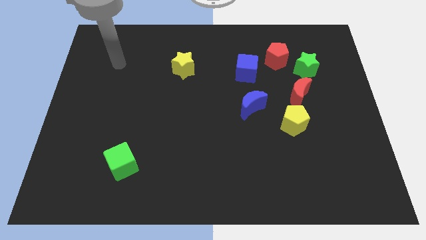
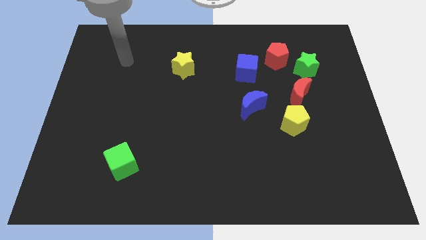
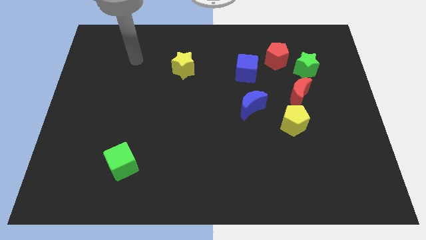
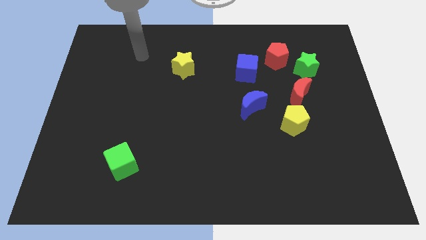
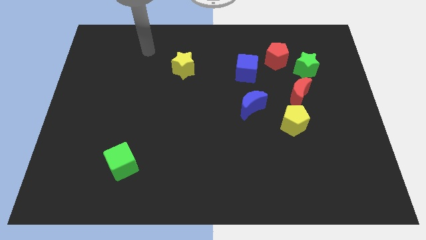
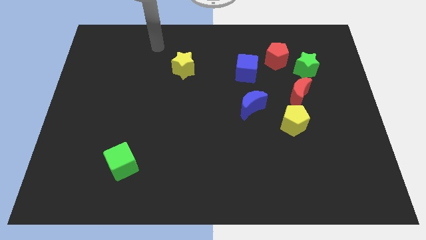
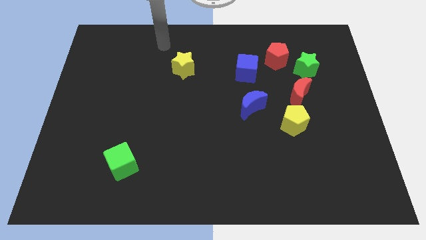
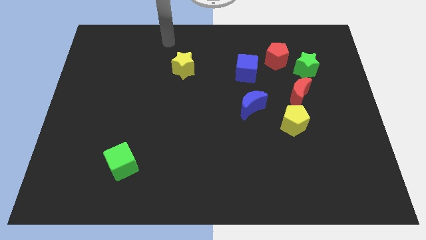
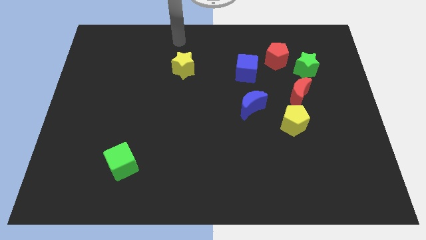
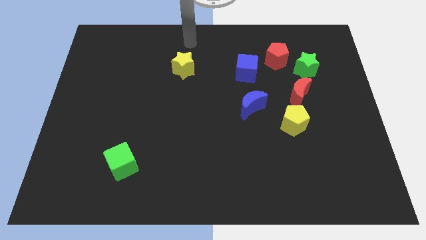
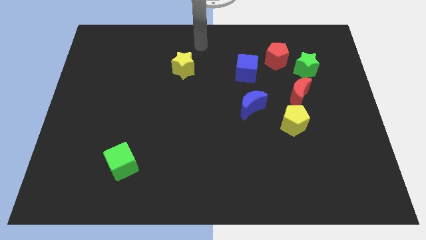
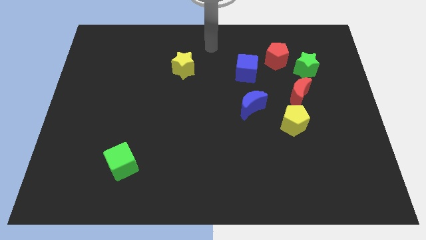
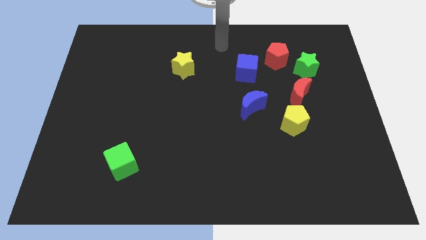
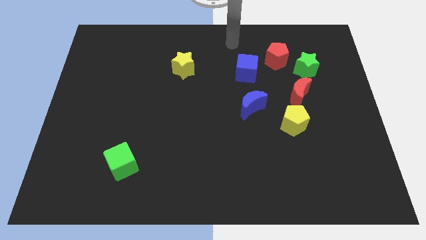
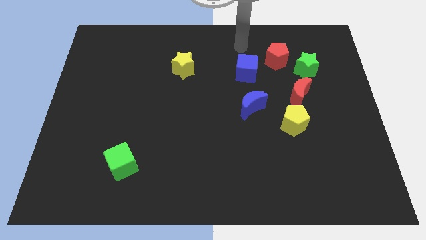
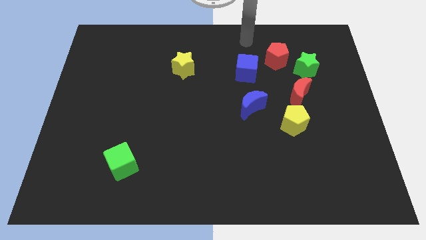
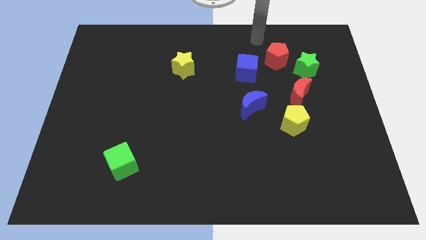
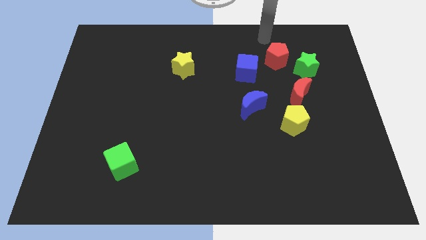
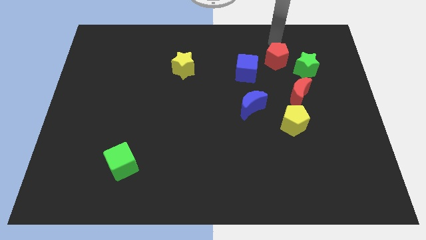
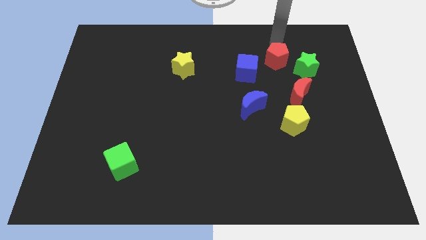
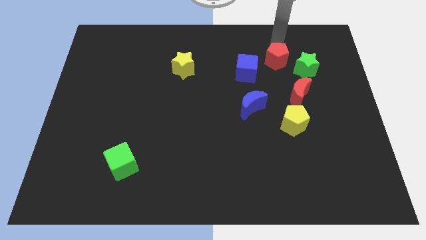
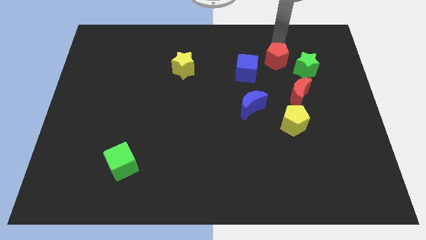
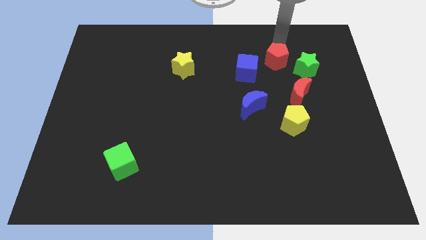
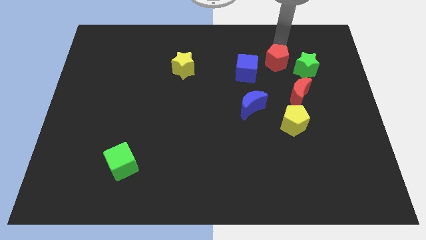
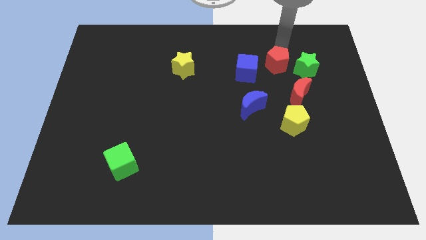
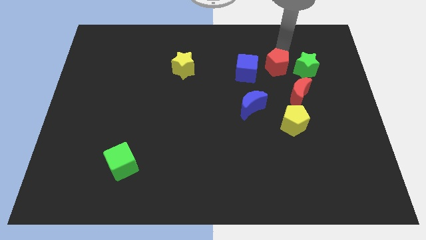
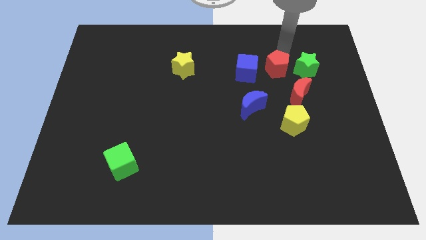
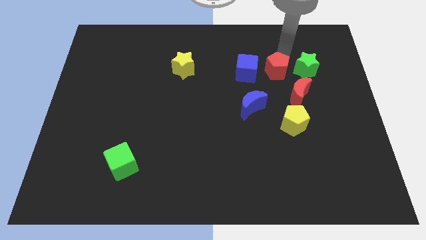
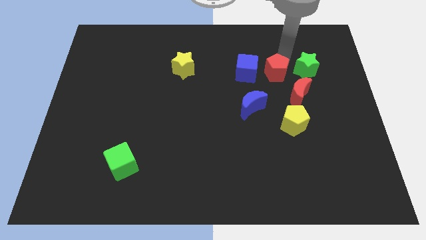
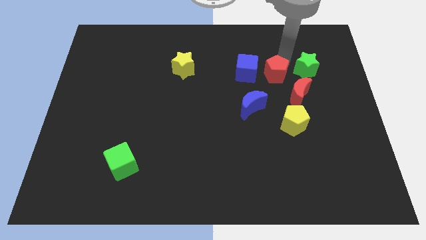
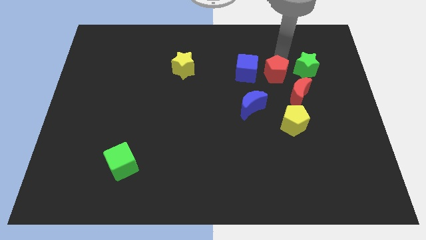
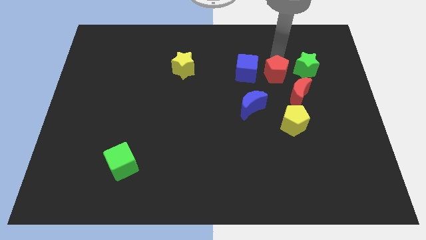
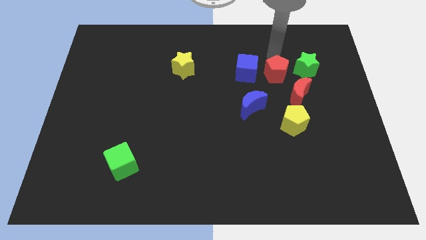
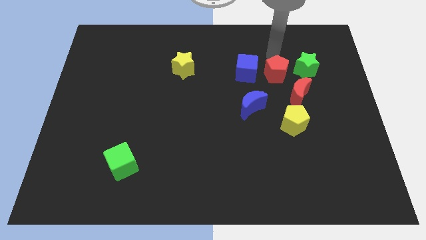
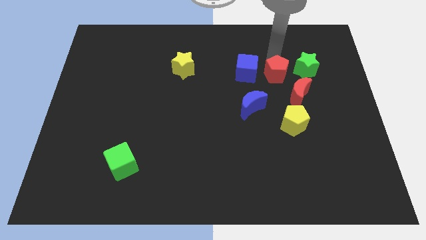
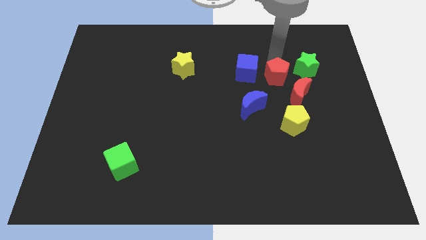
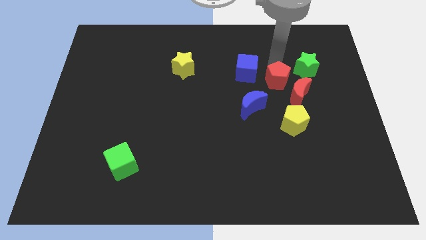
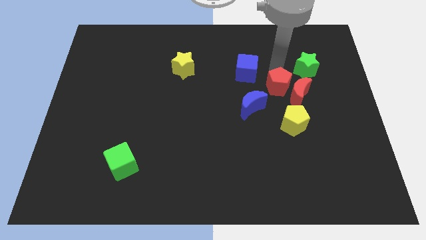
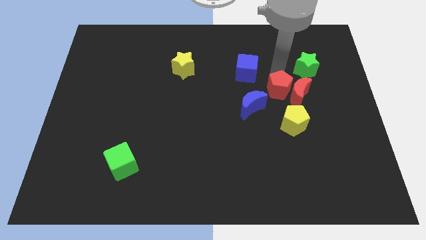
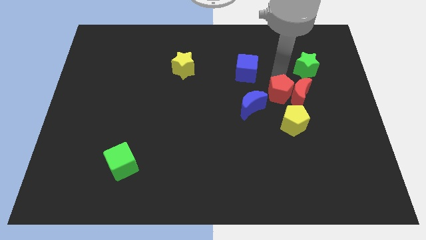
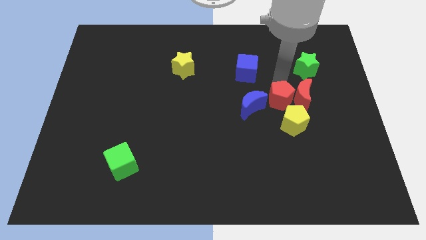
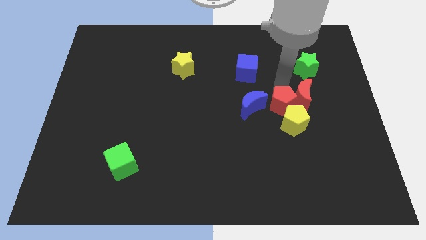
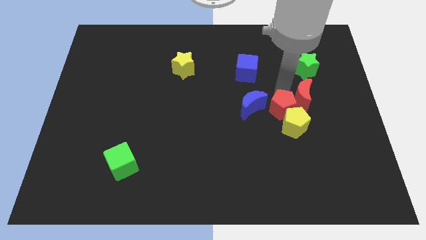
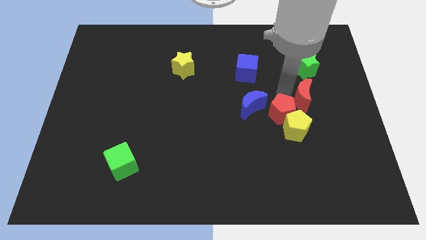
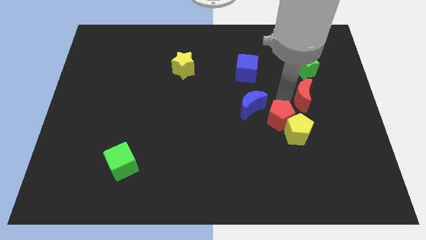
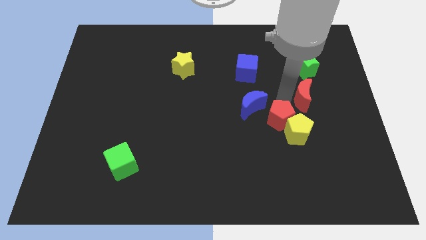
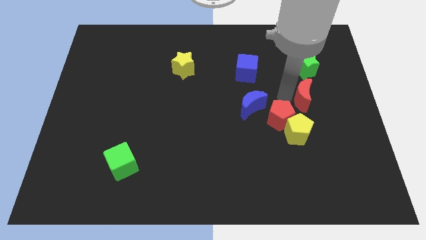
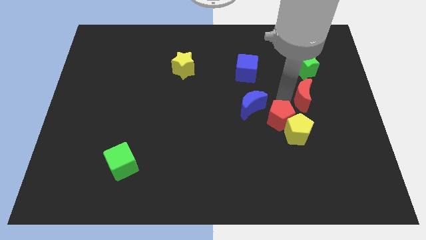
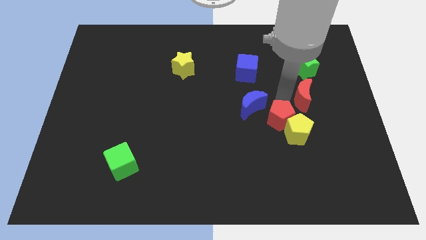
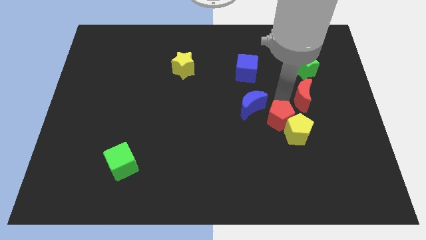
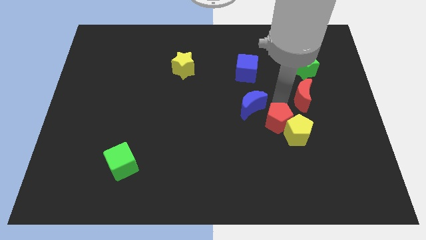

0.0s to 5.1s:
slide the red pentagon downwards

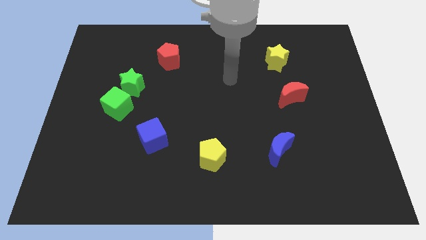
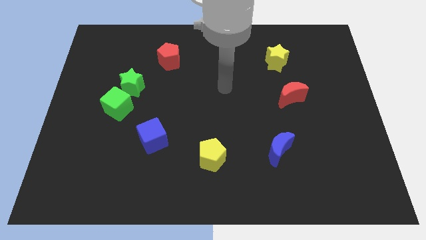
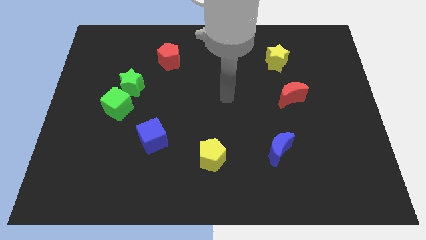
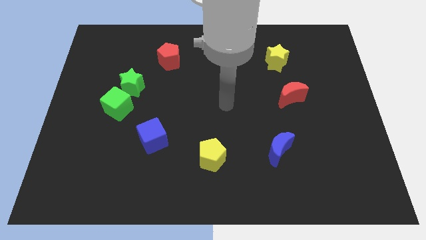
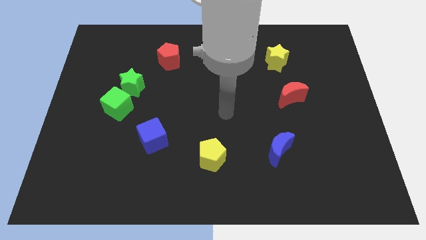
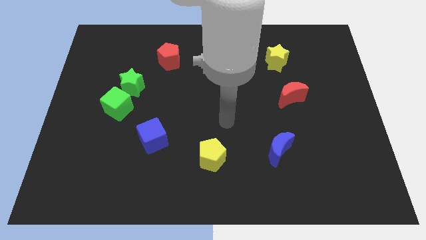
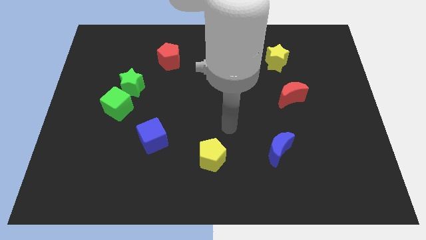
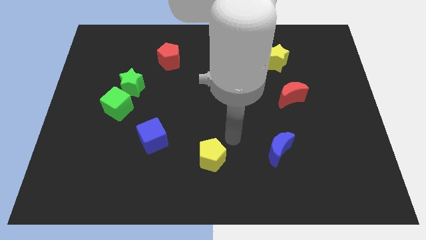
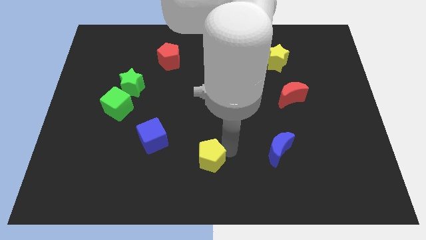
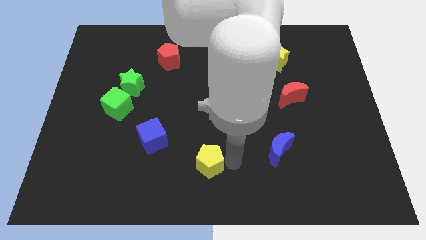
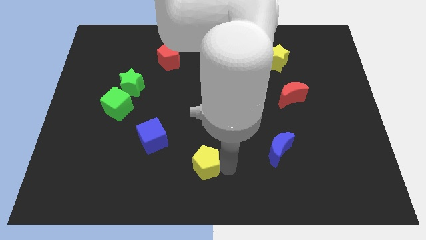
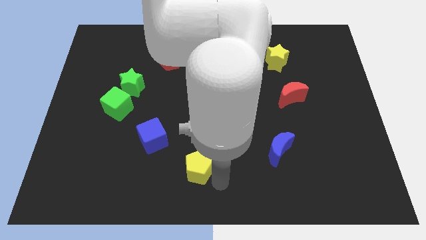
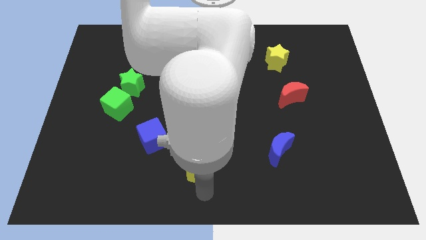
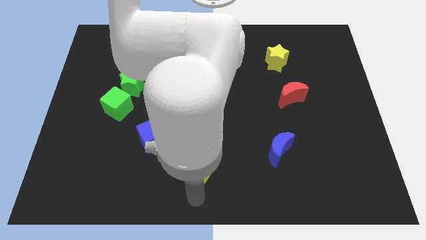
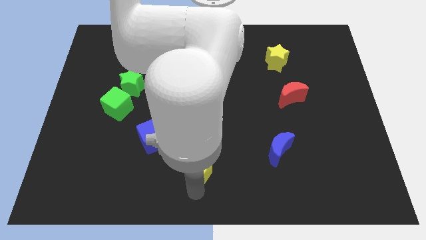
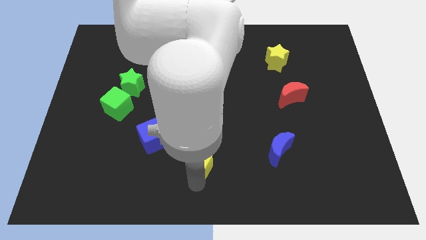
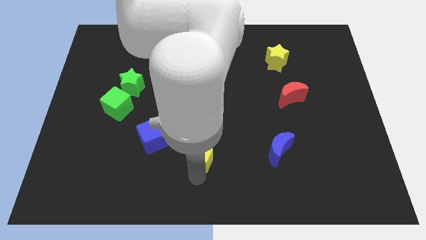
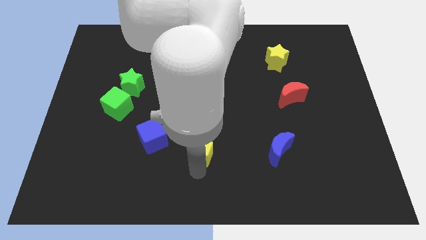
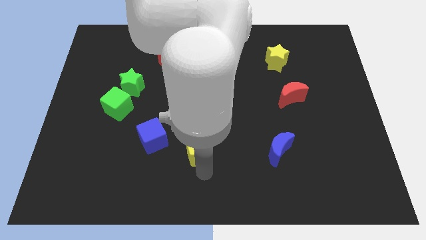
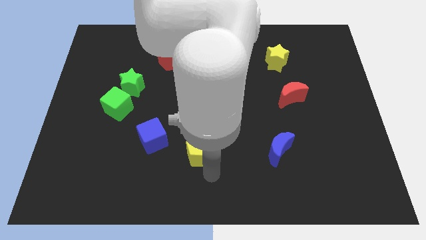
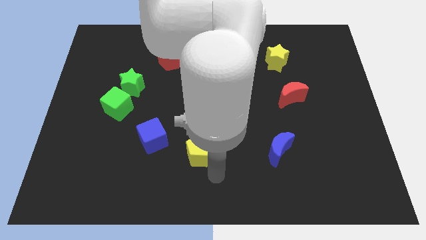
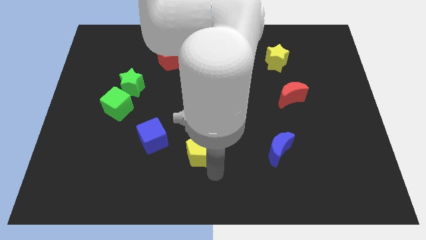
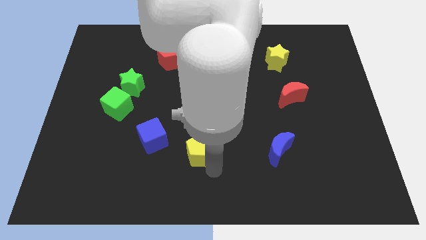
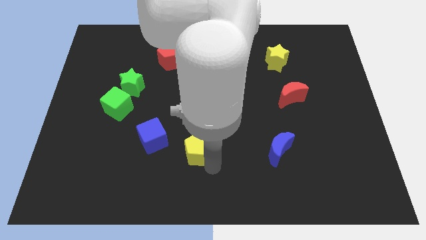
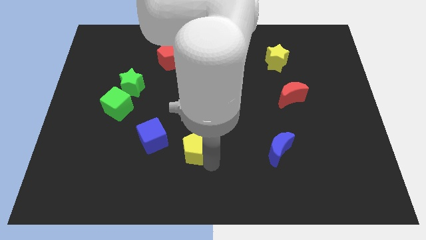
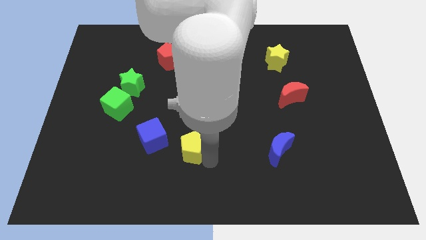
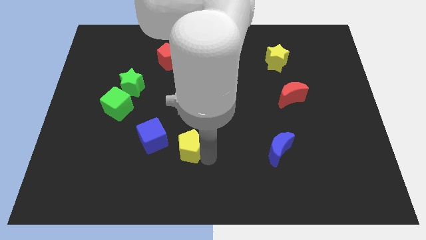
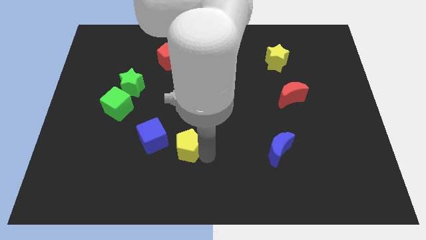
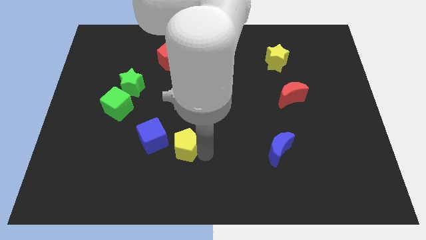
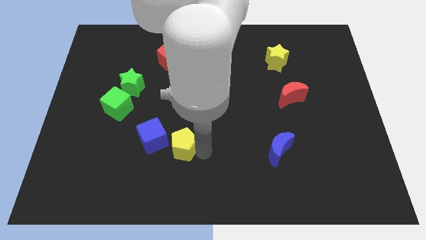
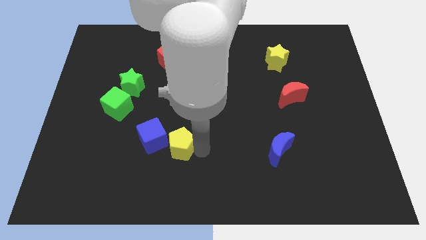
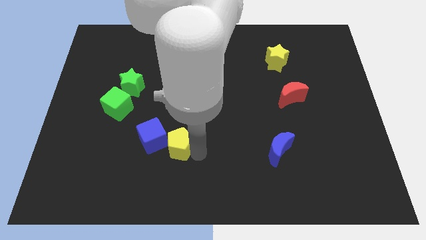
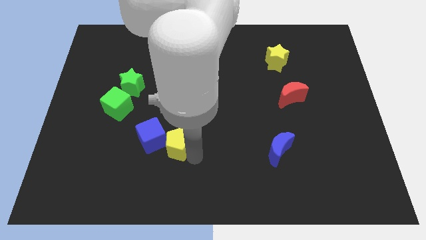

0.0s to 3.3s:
push the yellow pentagon upwards and left diagonally a little
